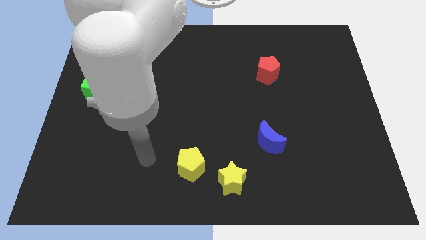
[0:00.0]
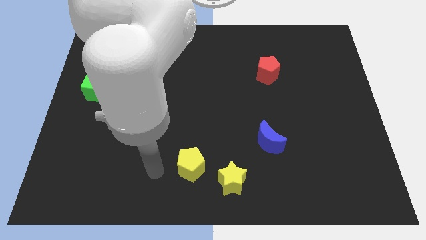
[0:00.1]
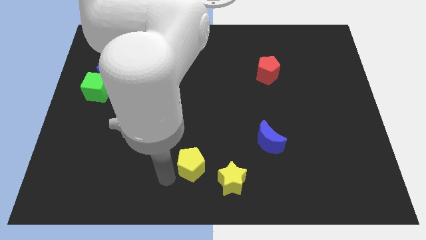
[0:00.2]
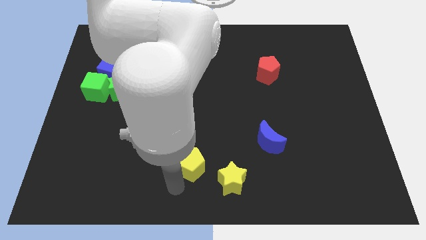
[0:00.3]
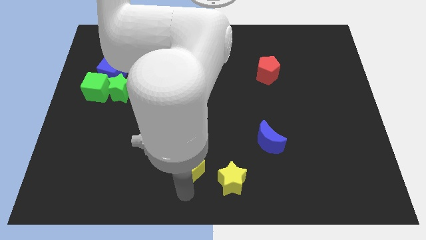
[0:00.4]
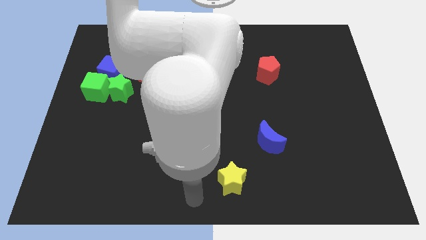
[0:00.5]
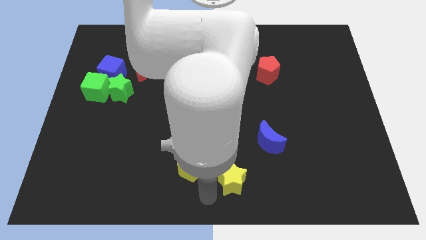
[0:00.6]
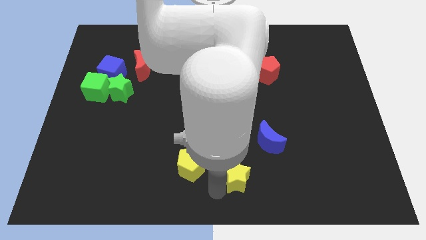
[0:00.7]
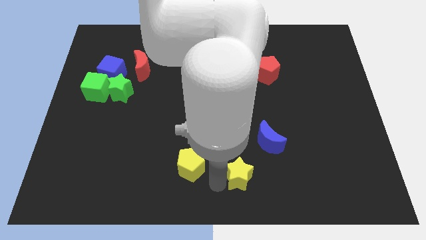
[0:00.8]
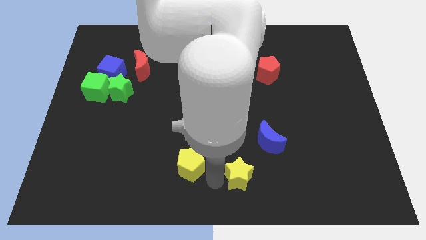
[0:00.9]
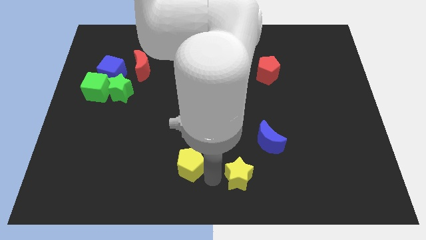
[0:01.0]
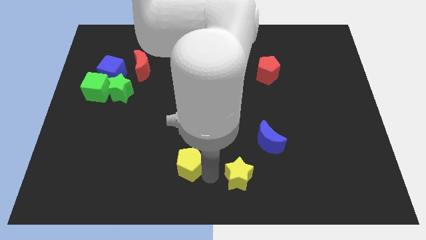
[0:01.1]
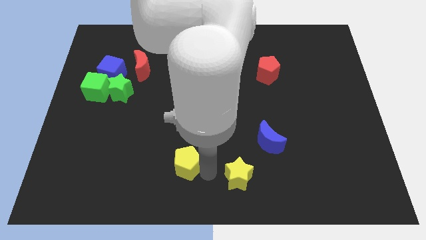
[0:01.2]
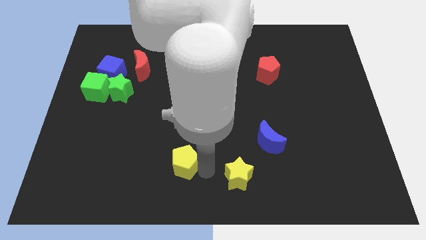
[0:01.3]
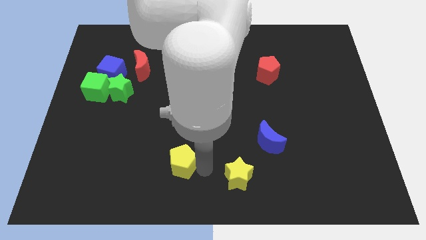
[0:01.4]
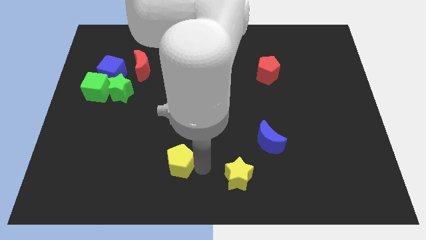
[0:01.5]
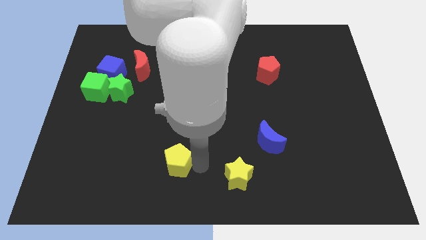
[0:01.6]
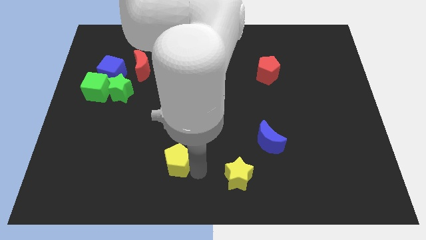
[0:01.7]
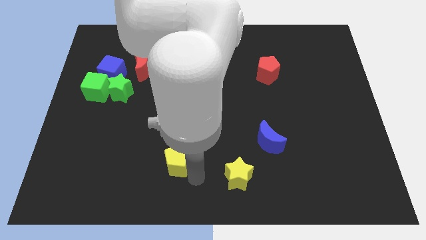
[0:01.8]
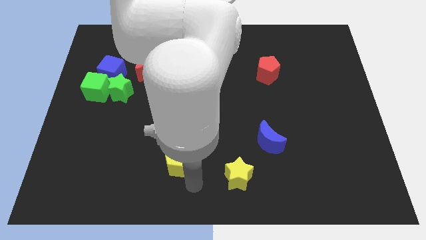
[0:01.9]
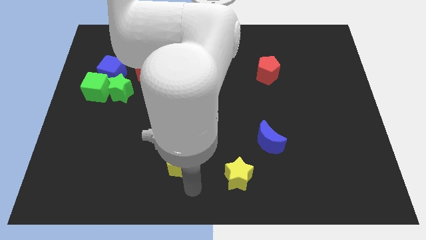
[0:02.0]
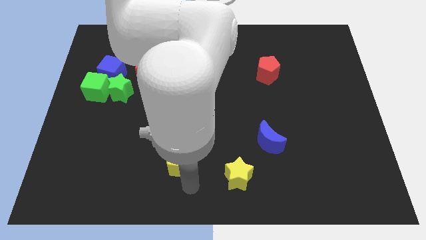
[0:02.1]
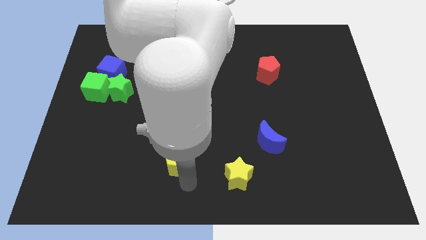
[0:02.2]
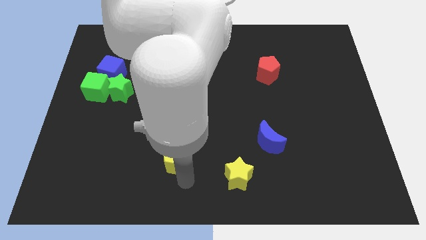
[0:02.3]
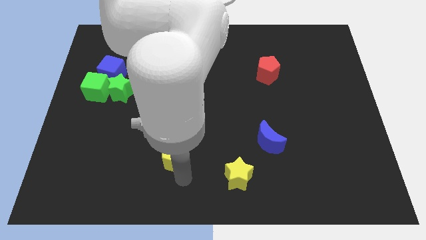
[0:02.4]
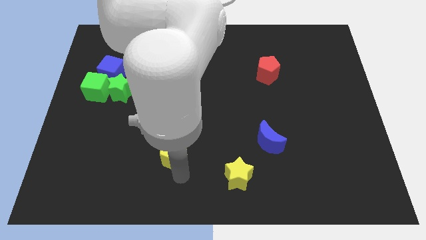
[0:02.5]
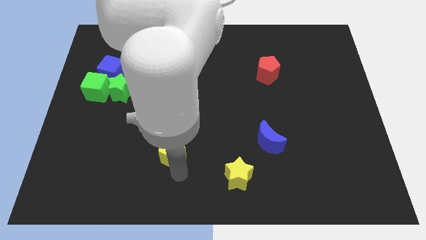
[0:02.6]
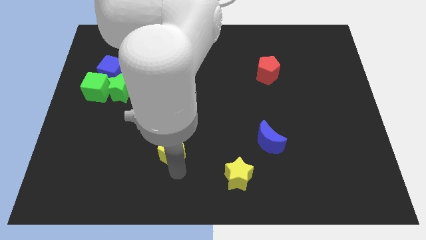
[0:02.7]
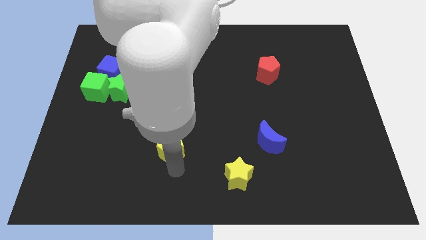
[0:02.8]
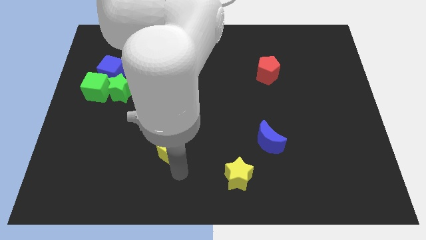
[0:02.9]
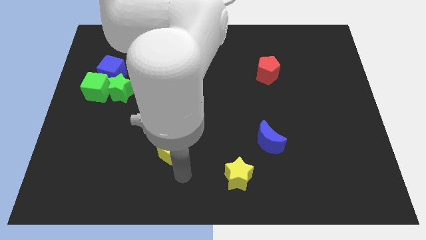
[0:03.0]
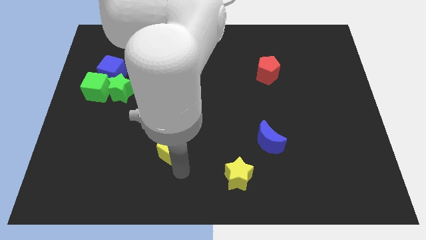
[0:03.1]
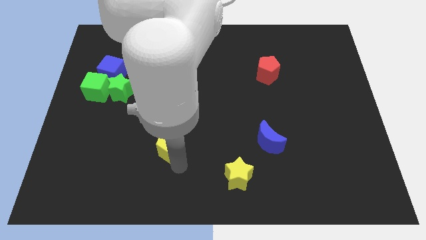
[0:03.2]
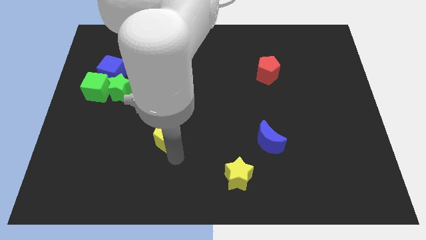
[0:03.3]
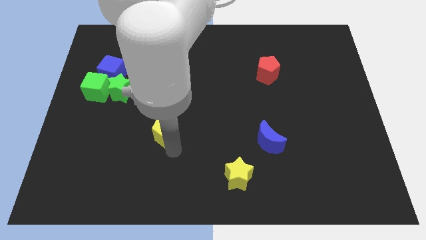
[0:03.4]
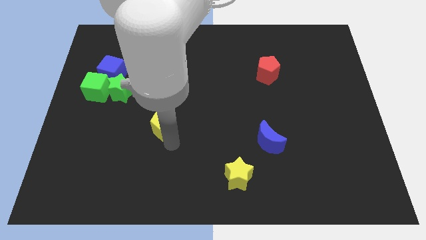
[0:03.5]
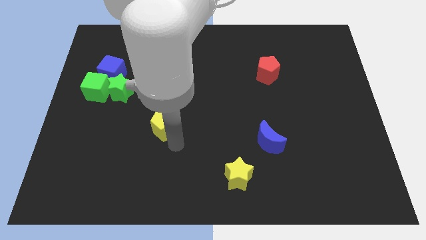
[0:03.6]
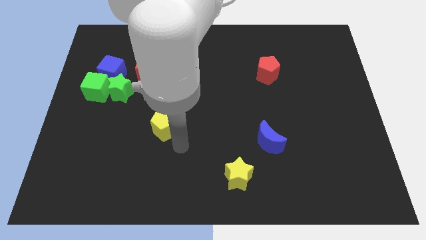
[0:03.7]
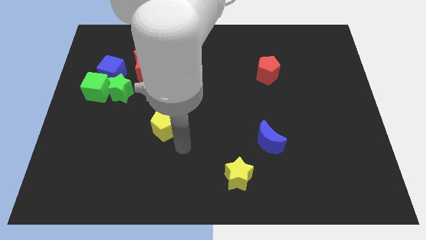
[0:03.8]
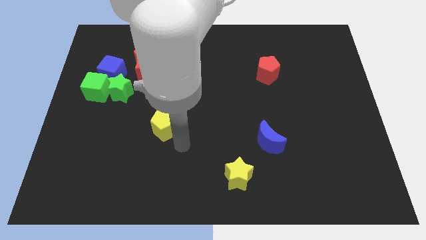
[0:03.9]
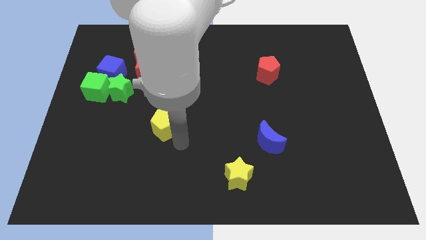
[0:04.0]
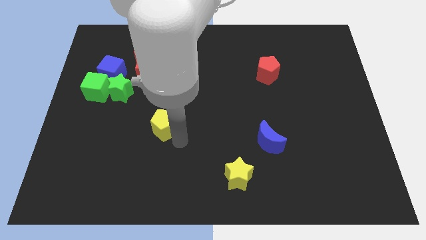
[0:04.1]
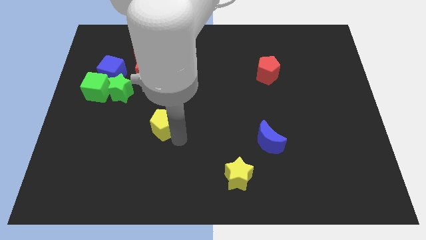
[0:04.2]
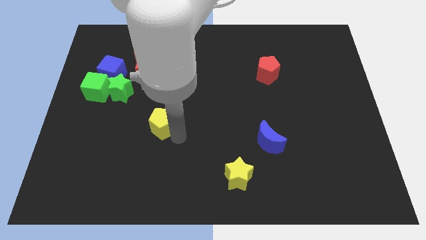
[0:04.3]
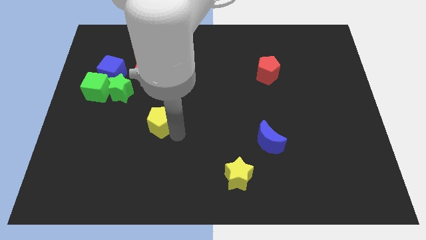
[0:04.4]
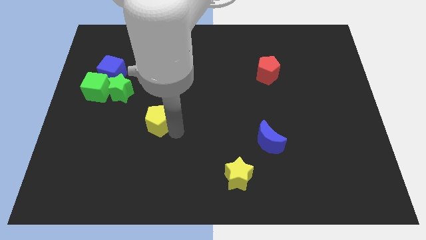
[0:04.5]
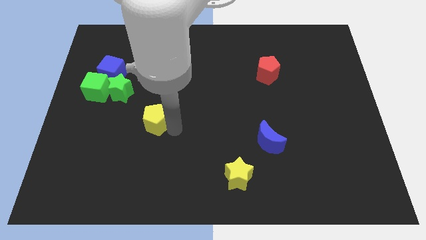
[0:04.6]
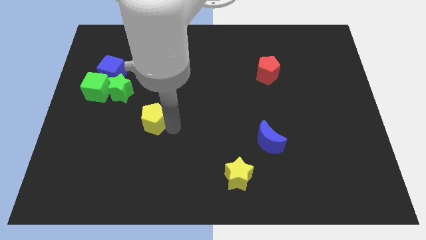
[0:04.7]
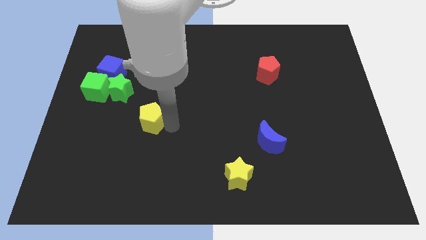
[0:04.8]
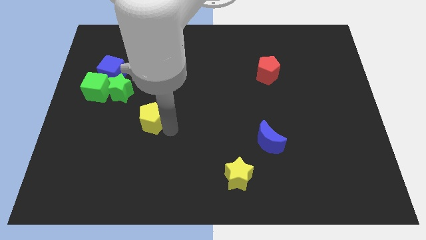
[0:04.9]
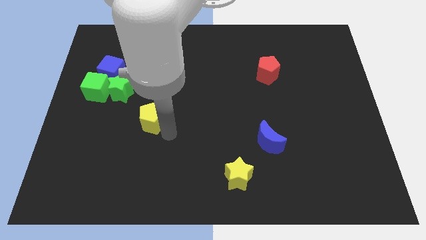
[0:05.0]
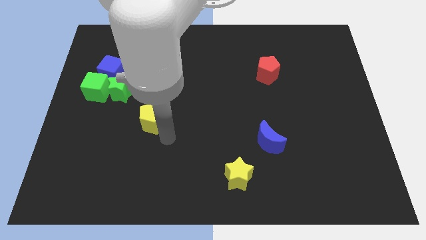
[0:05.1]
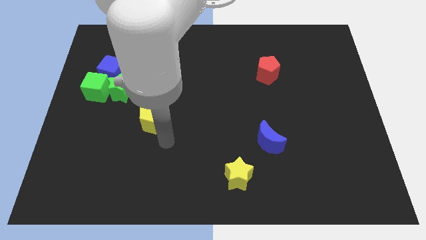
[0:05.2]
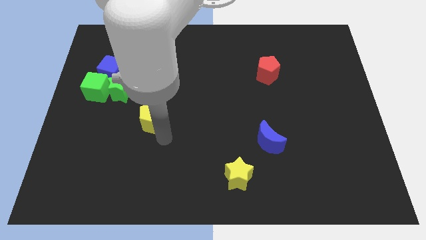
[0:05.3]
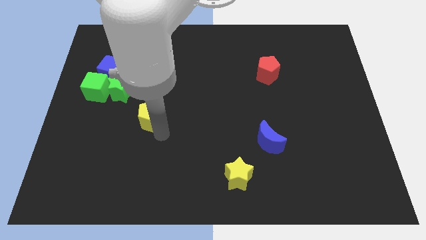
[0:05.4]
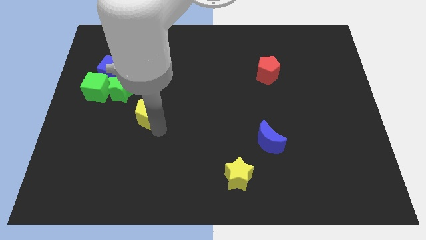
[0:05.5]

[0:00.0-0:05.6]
put the yellow pentagon below the red moon
